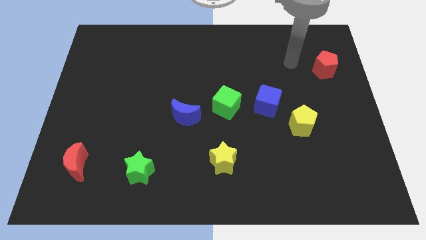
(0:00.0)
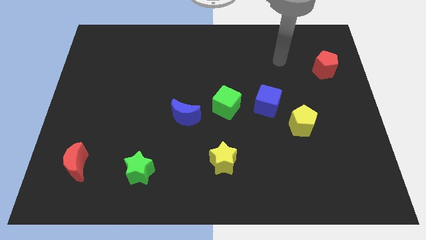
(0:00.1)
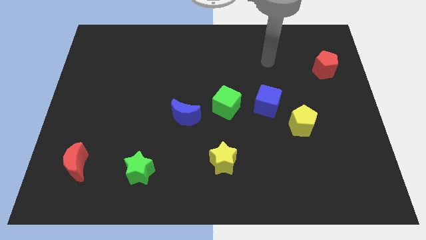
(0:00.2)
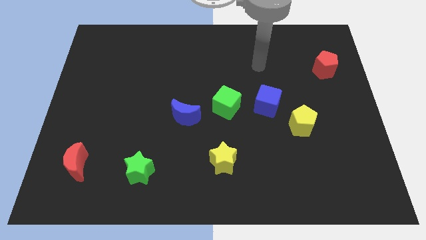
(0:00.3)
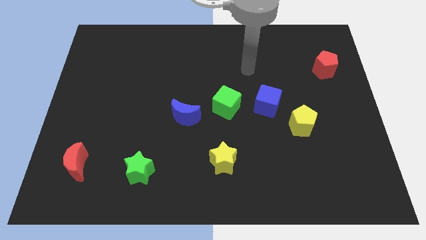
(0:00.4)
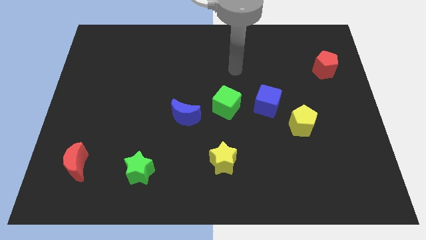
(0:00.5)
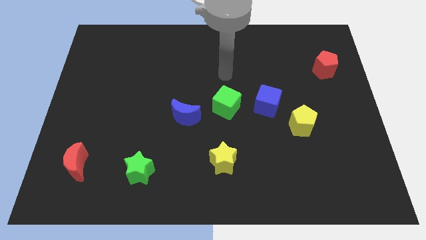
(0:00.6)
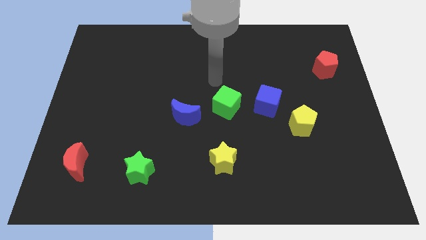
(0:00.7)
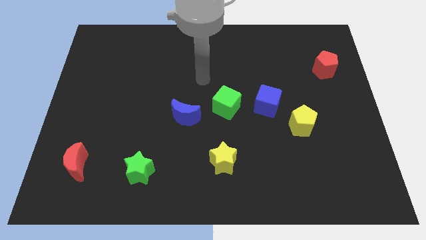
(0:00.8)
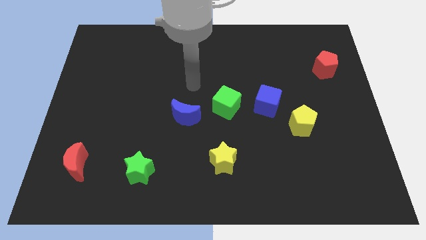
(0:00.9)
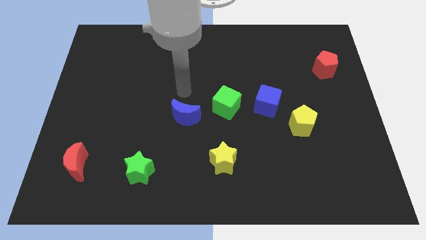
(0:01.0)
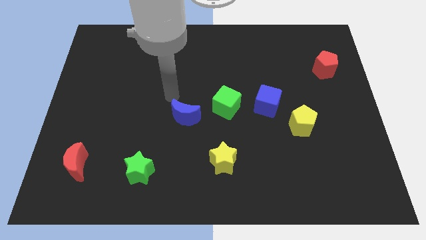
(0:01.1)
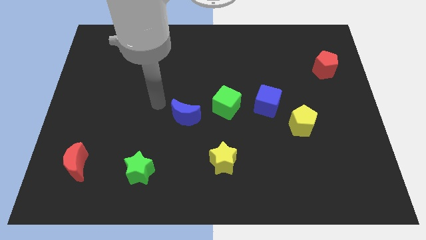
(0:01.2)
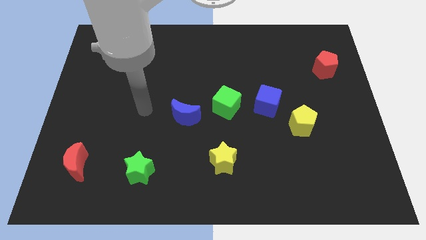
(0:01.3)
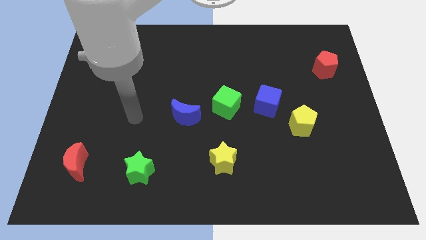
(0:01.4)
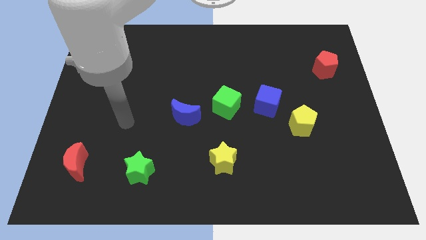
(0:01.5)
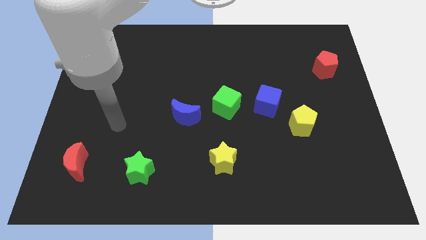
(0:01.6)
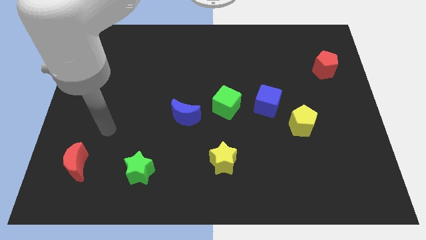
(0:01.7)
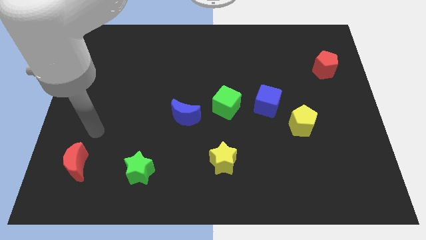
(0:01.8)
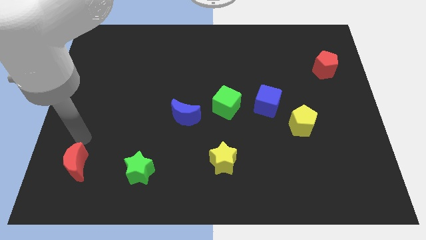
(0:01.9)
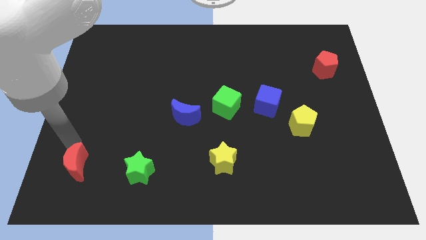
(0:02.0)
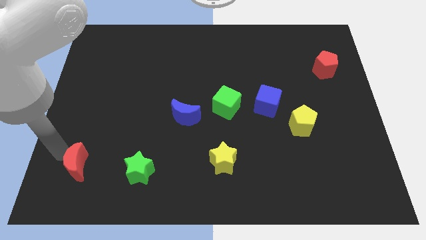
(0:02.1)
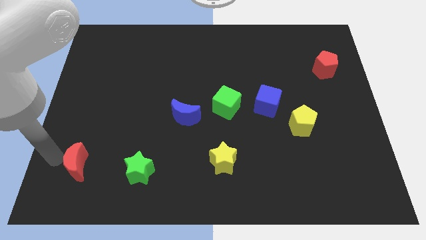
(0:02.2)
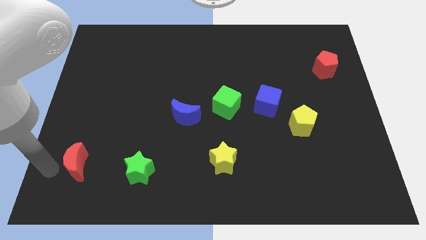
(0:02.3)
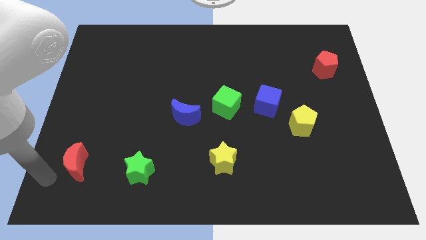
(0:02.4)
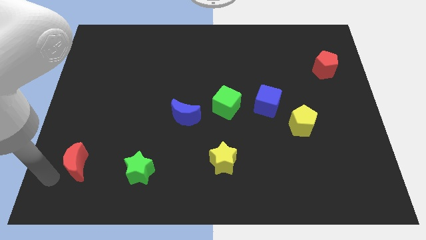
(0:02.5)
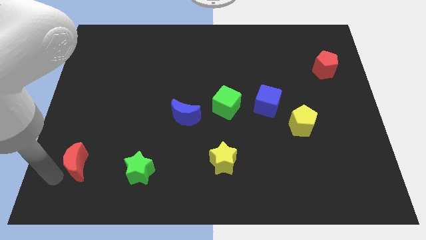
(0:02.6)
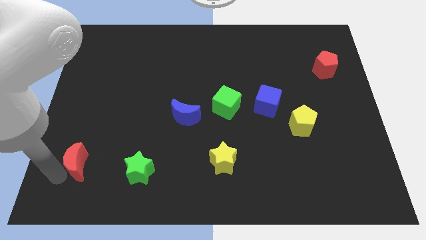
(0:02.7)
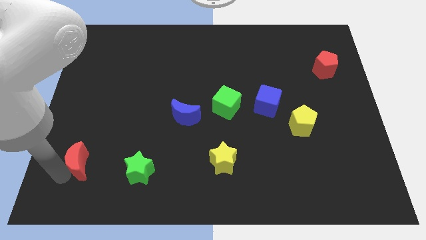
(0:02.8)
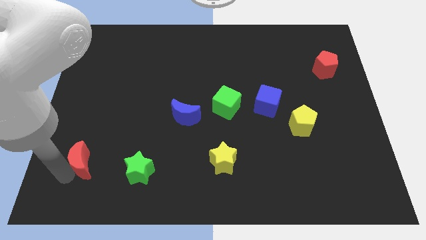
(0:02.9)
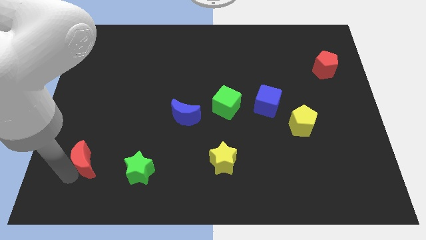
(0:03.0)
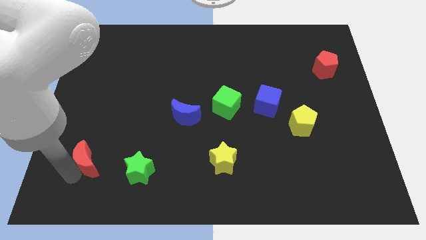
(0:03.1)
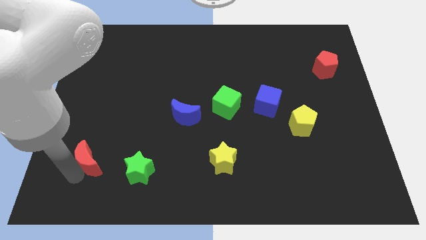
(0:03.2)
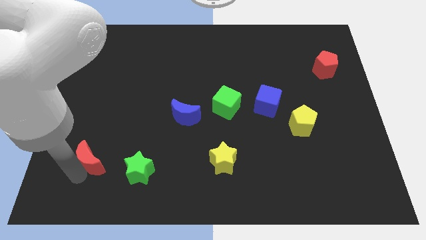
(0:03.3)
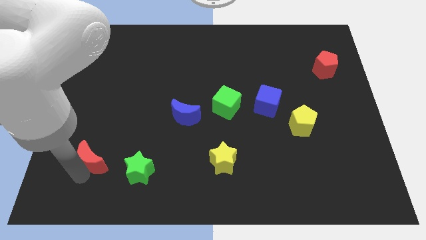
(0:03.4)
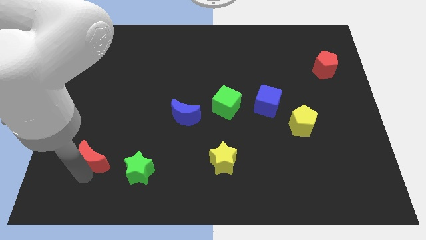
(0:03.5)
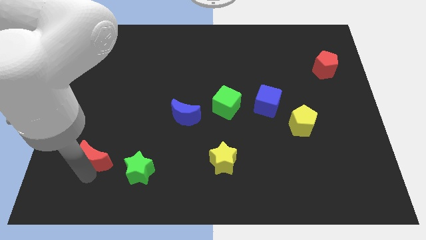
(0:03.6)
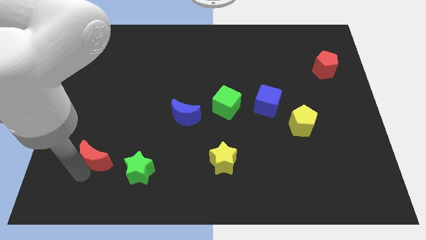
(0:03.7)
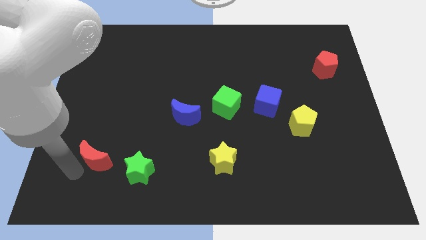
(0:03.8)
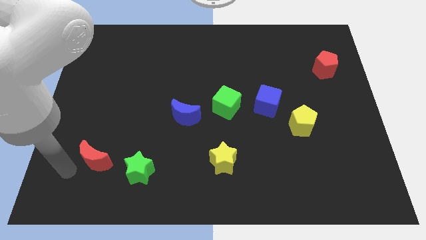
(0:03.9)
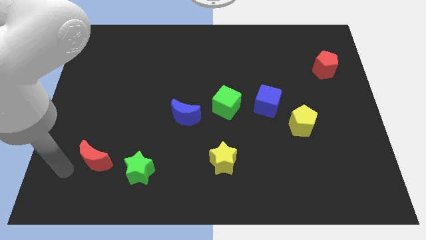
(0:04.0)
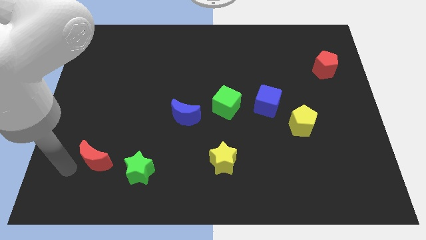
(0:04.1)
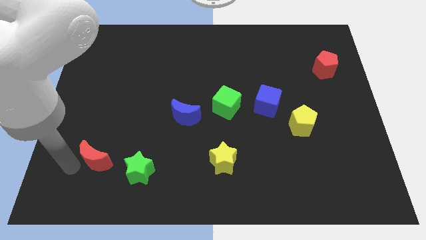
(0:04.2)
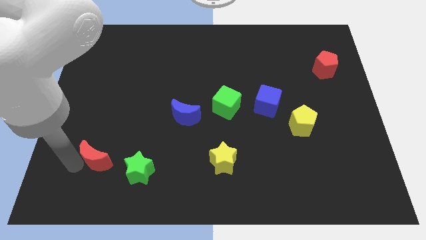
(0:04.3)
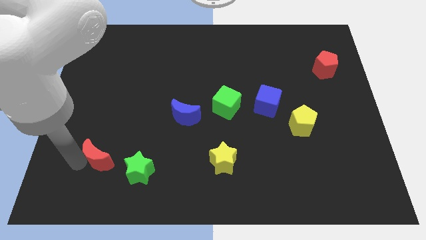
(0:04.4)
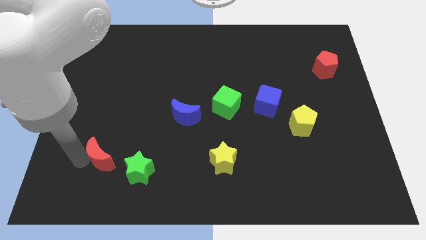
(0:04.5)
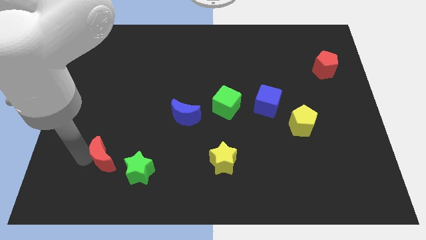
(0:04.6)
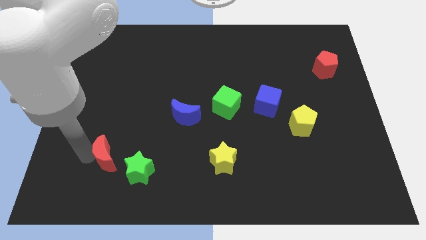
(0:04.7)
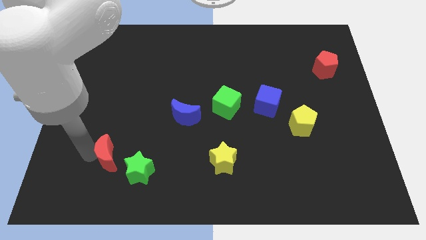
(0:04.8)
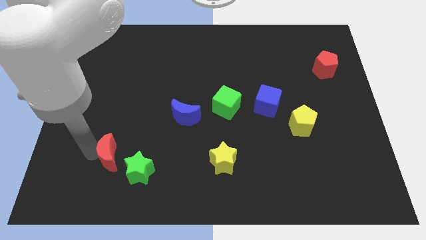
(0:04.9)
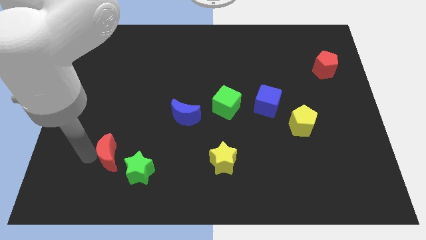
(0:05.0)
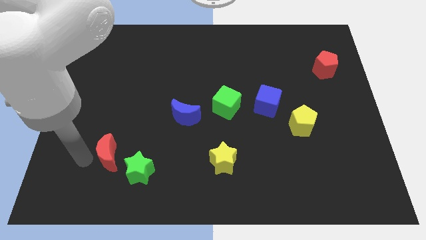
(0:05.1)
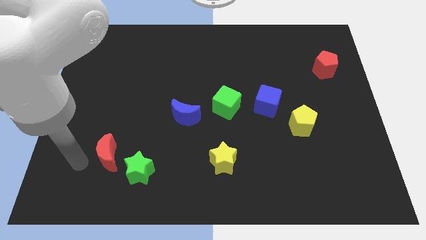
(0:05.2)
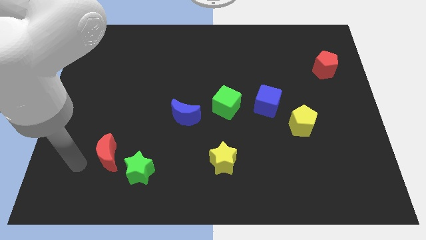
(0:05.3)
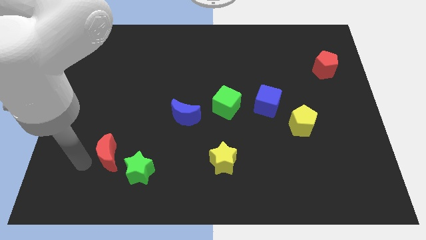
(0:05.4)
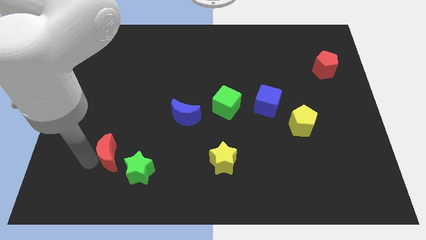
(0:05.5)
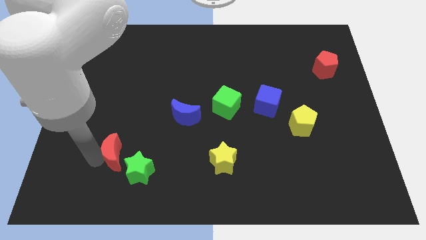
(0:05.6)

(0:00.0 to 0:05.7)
move the red moon to the right a little bit

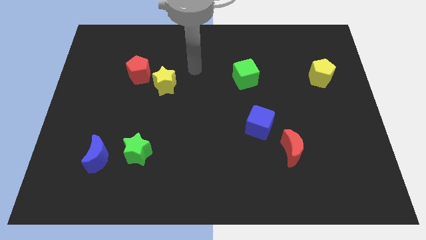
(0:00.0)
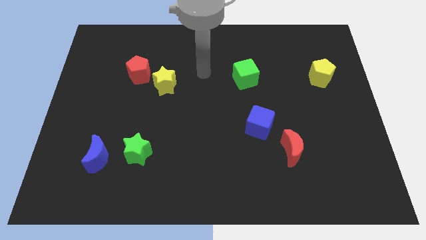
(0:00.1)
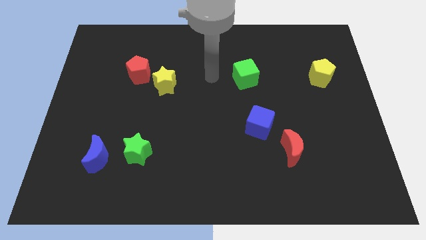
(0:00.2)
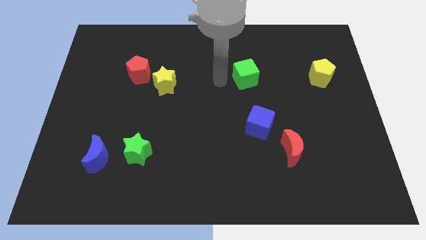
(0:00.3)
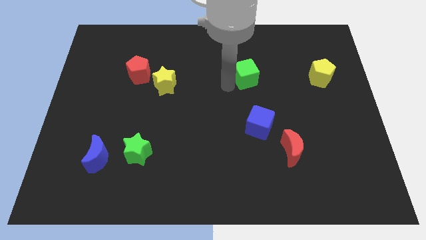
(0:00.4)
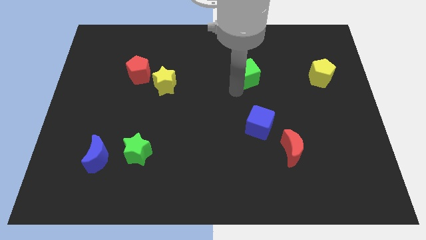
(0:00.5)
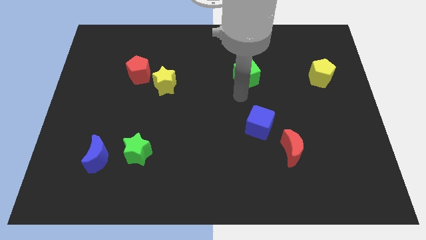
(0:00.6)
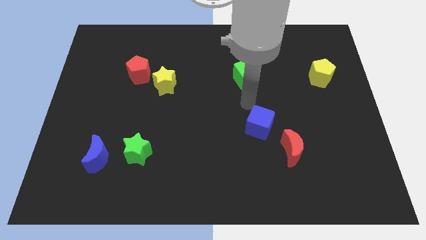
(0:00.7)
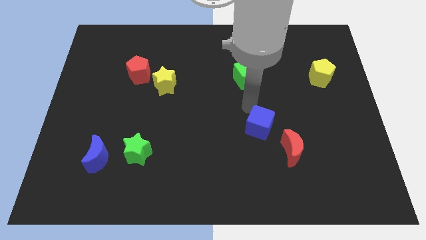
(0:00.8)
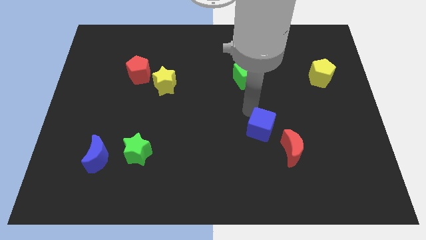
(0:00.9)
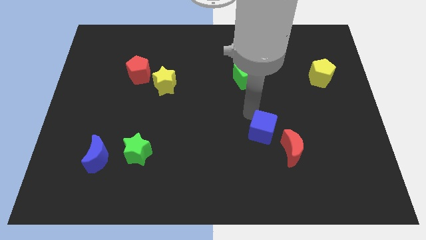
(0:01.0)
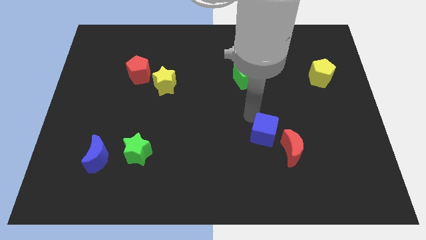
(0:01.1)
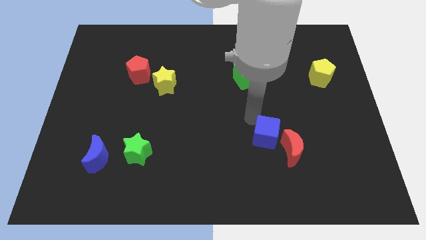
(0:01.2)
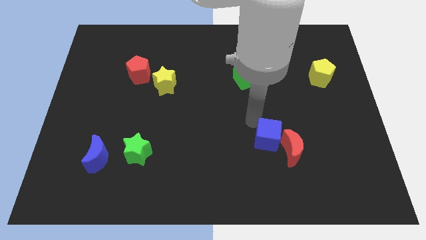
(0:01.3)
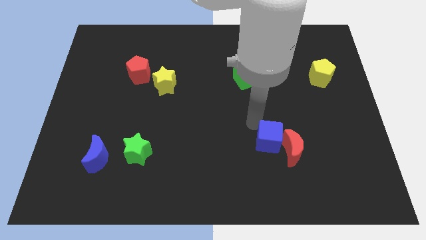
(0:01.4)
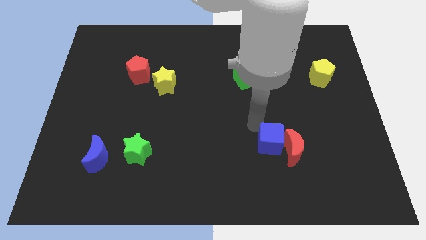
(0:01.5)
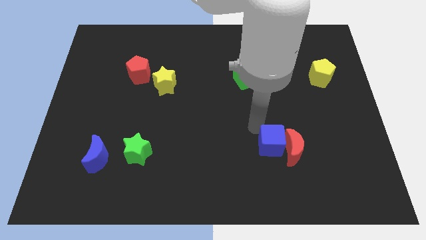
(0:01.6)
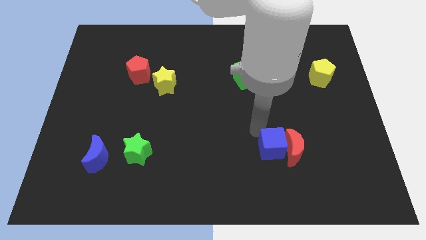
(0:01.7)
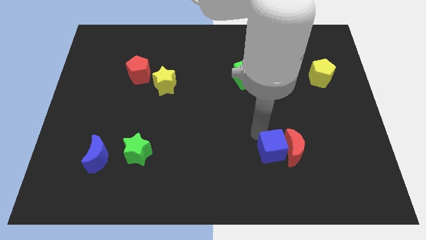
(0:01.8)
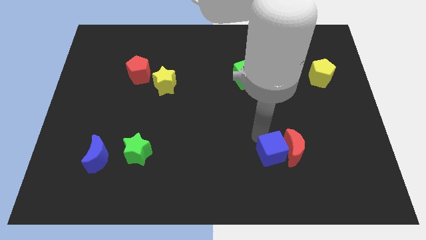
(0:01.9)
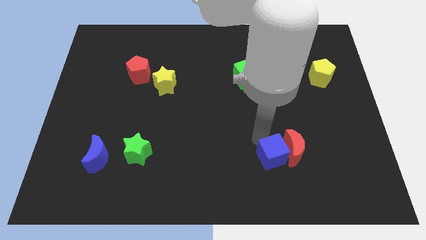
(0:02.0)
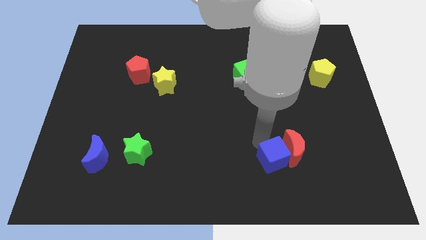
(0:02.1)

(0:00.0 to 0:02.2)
move the blue cube a bit diagonally down and to the right

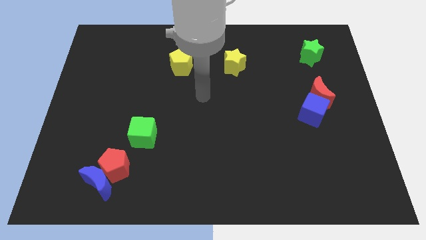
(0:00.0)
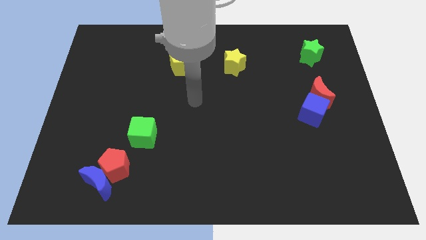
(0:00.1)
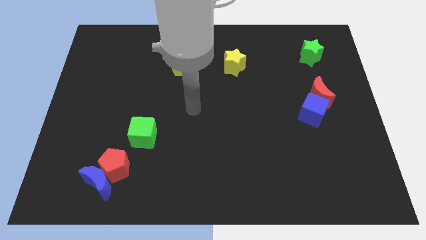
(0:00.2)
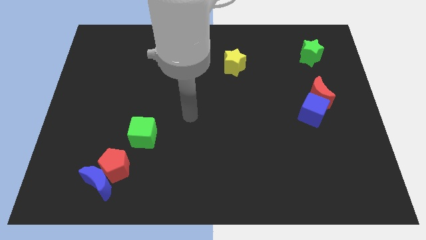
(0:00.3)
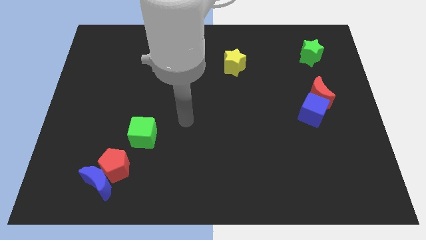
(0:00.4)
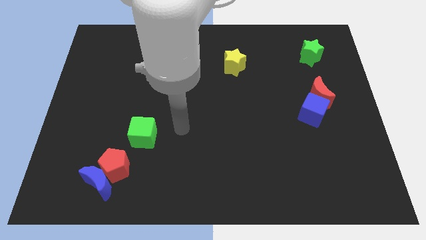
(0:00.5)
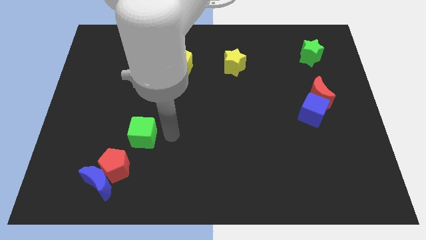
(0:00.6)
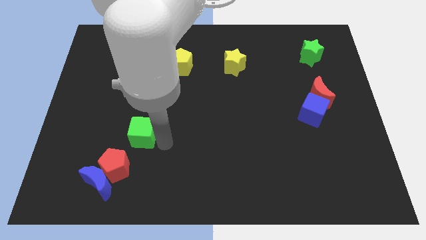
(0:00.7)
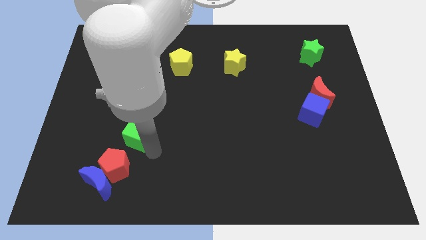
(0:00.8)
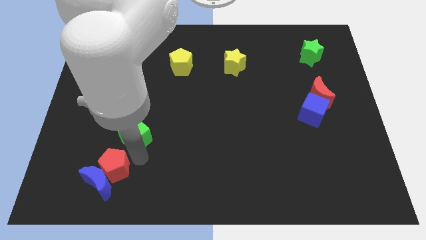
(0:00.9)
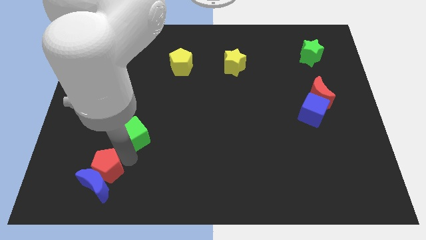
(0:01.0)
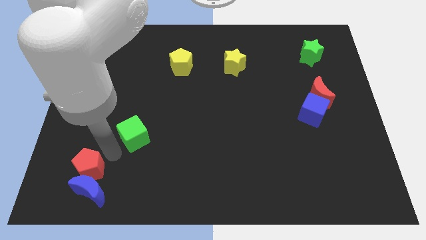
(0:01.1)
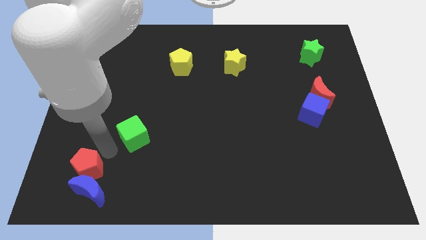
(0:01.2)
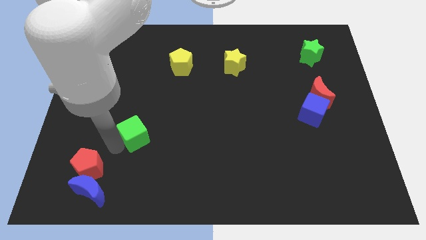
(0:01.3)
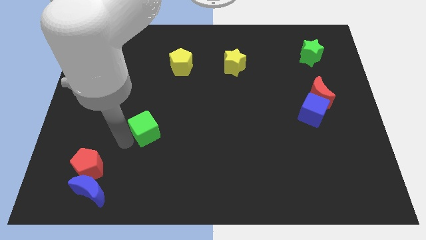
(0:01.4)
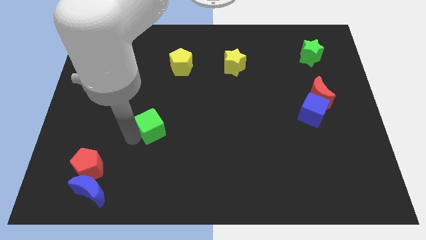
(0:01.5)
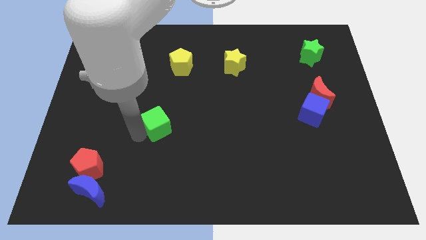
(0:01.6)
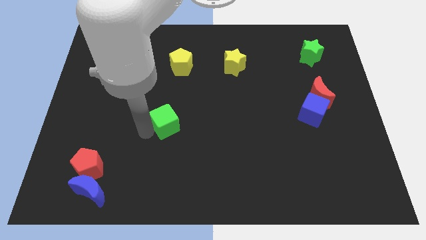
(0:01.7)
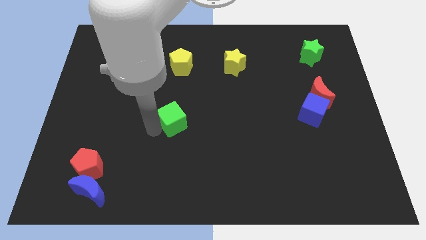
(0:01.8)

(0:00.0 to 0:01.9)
slide the green cube a little bit upwards and to the right diagonally
